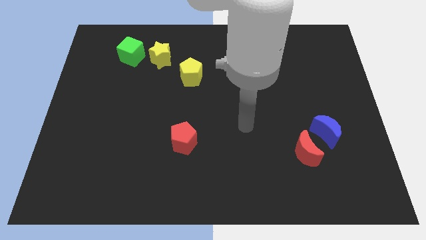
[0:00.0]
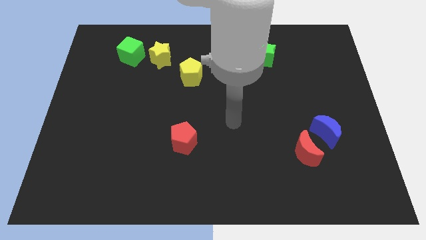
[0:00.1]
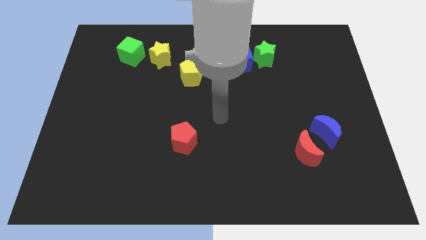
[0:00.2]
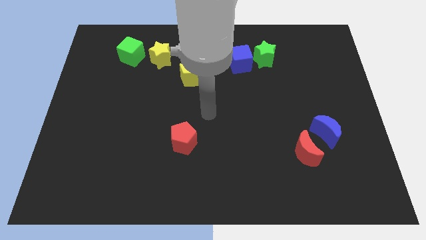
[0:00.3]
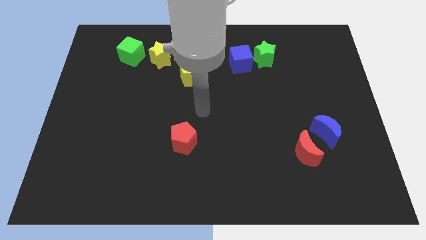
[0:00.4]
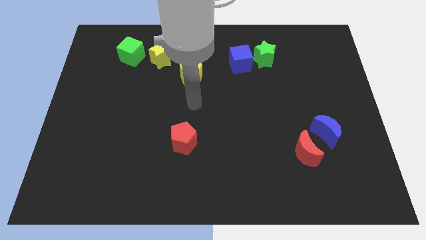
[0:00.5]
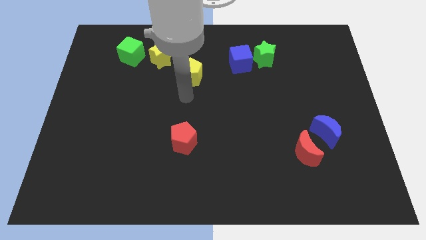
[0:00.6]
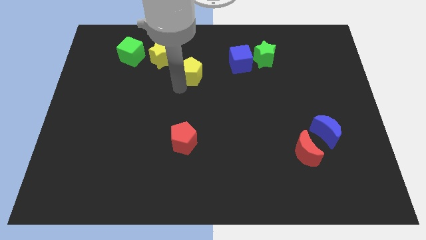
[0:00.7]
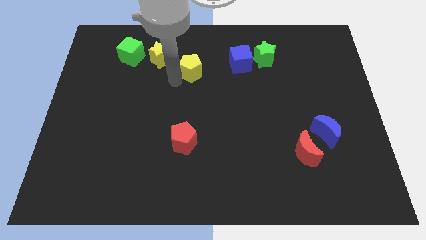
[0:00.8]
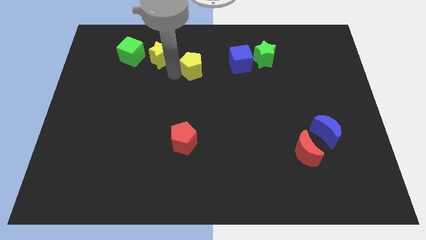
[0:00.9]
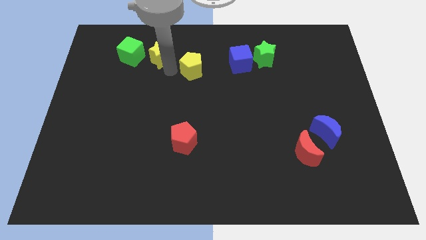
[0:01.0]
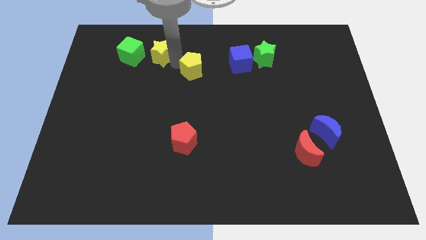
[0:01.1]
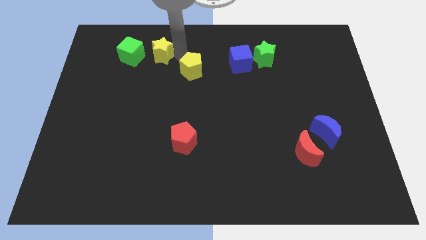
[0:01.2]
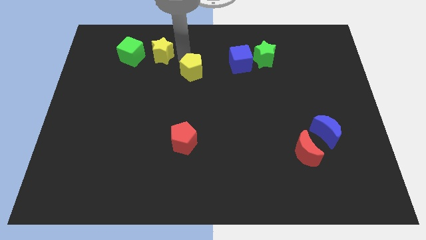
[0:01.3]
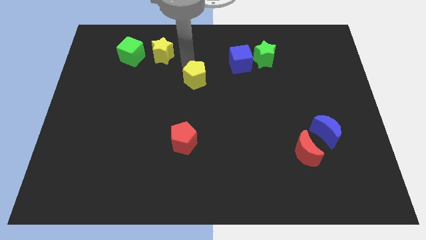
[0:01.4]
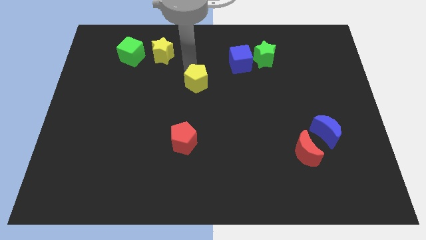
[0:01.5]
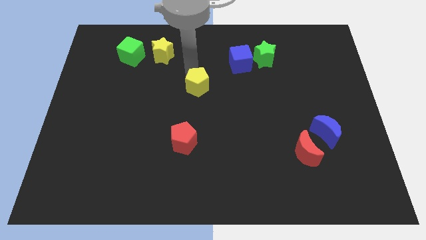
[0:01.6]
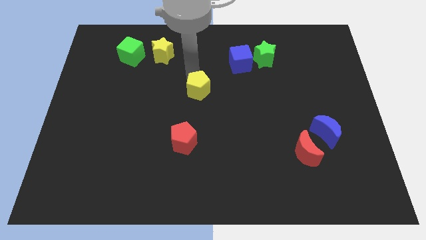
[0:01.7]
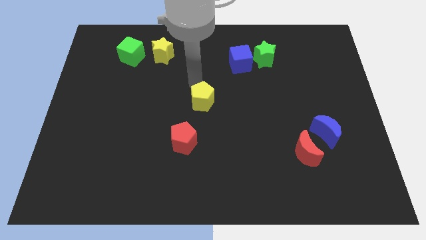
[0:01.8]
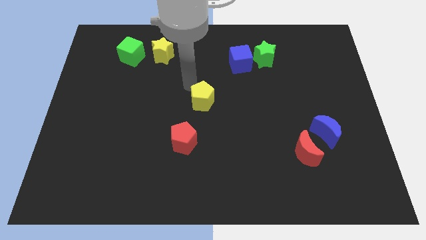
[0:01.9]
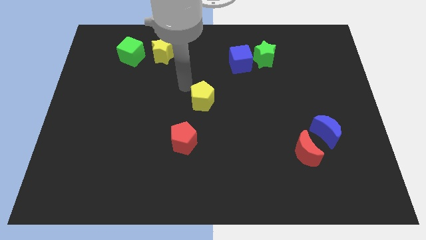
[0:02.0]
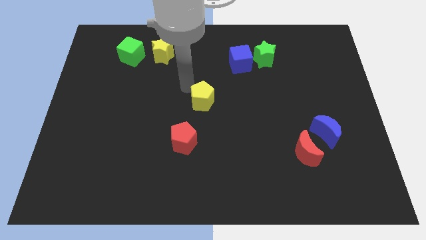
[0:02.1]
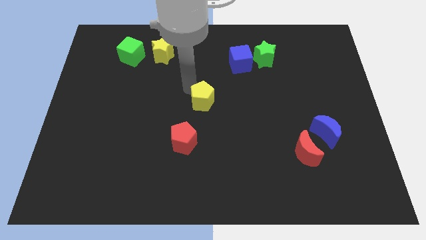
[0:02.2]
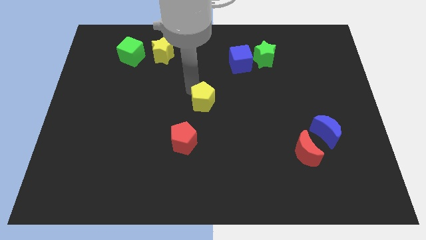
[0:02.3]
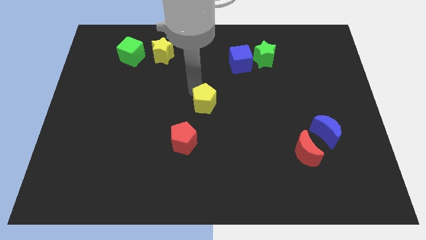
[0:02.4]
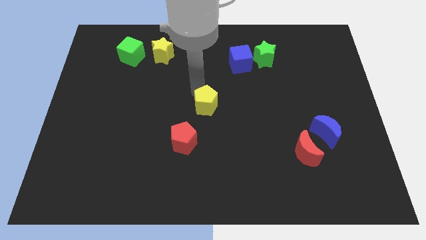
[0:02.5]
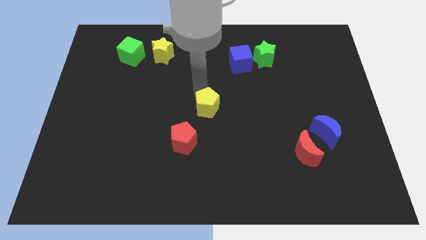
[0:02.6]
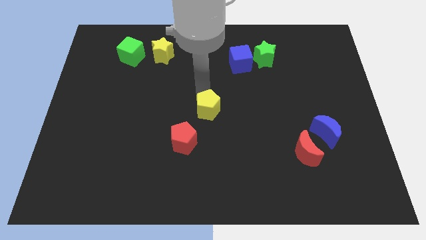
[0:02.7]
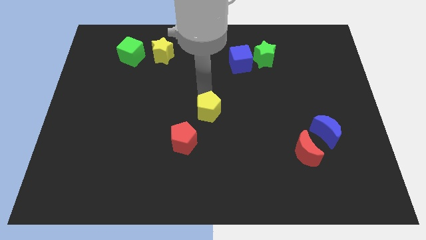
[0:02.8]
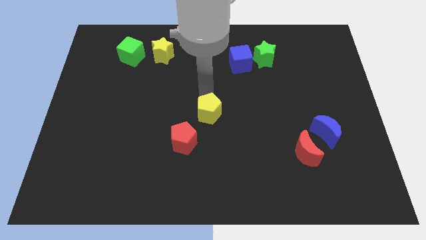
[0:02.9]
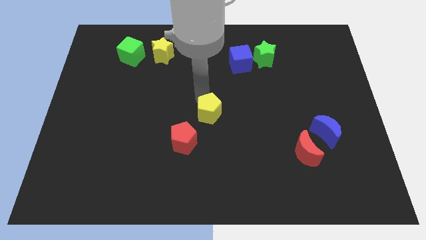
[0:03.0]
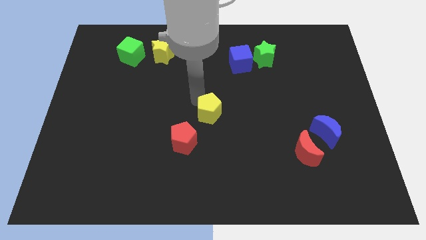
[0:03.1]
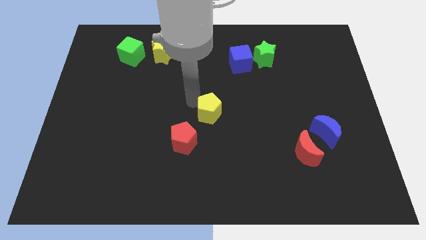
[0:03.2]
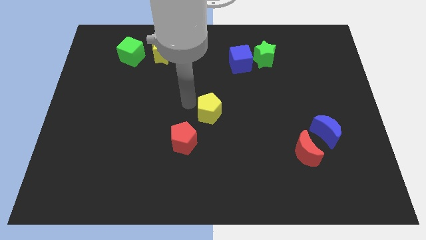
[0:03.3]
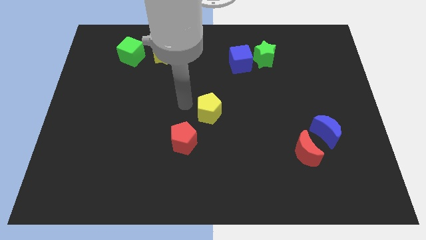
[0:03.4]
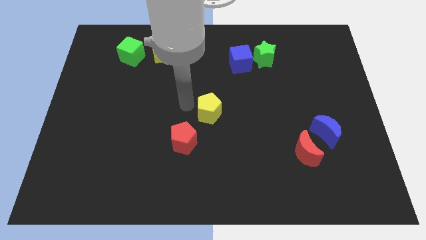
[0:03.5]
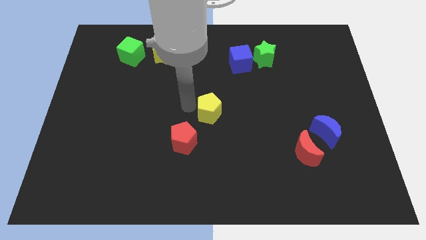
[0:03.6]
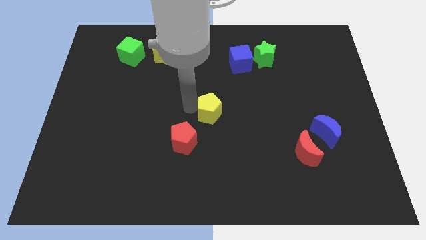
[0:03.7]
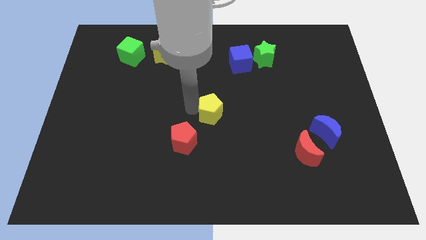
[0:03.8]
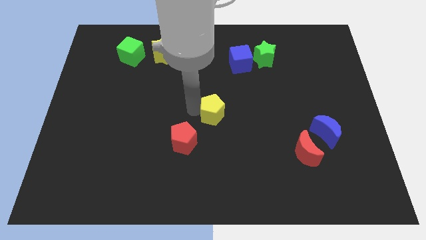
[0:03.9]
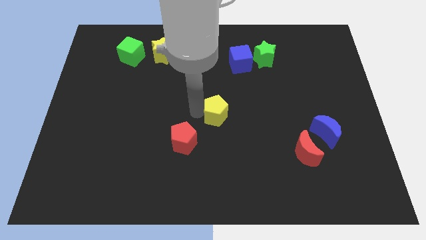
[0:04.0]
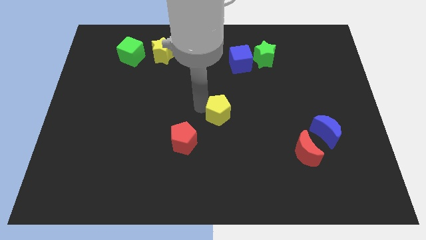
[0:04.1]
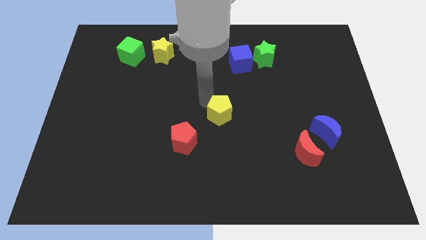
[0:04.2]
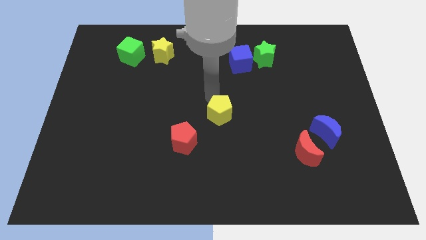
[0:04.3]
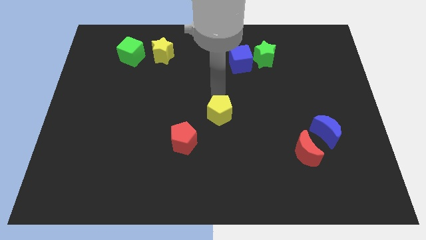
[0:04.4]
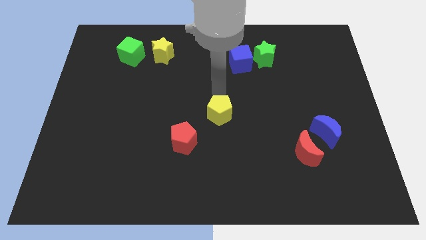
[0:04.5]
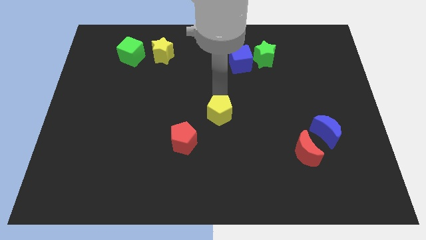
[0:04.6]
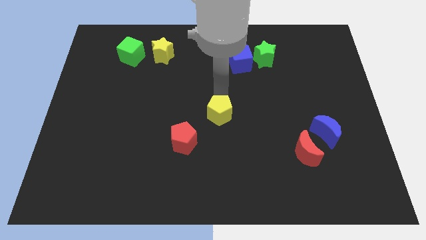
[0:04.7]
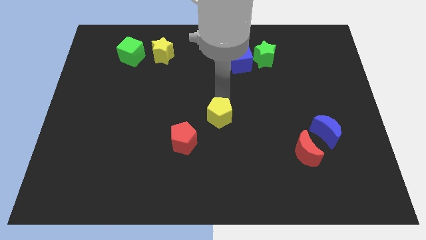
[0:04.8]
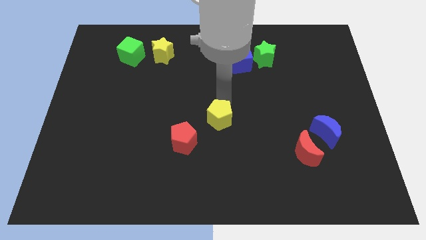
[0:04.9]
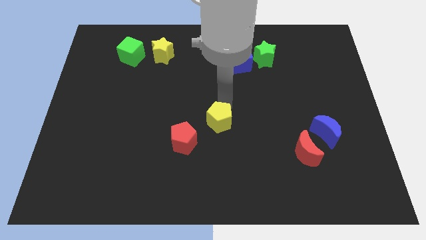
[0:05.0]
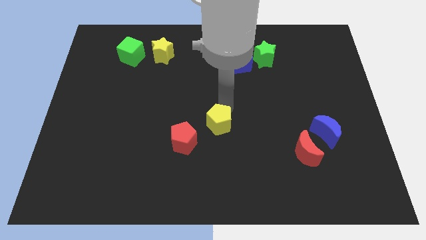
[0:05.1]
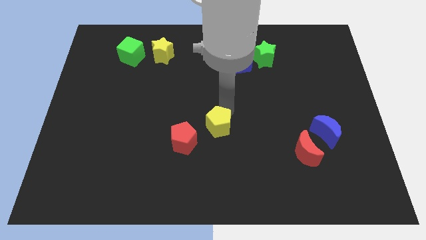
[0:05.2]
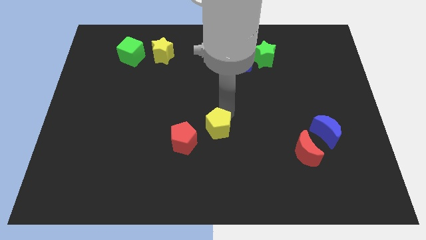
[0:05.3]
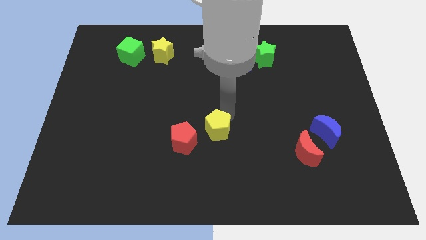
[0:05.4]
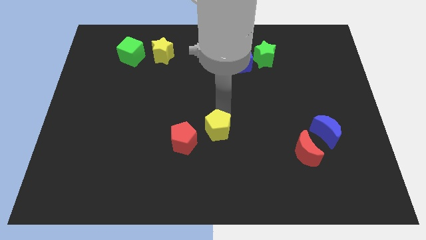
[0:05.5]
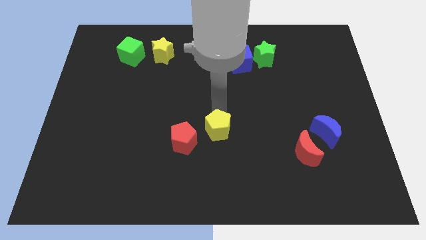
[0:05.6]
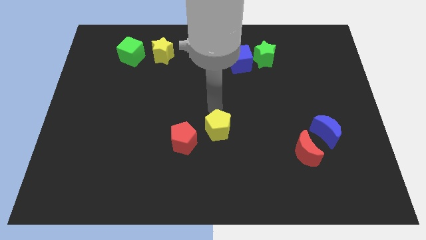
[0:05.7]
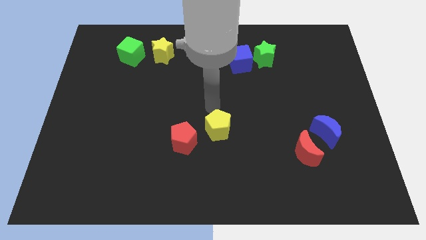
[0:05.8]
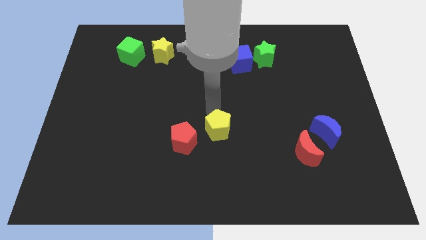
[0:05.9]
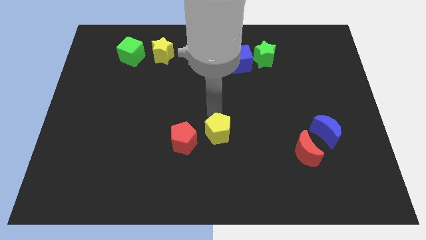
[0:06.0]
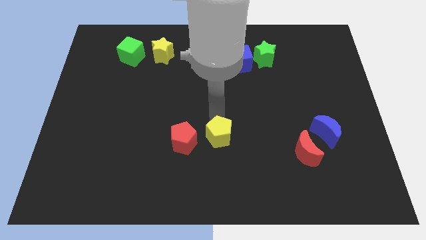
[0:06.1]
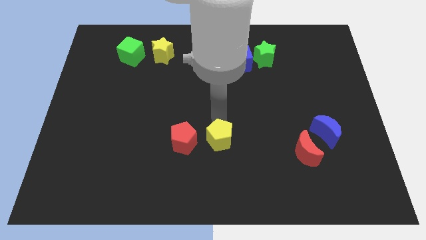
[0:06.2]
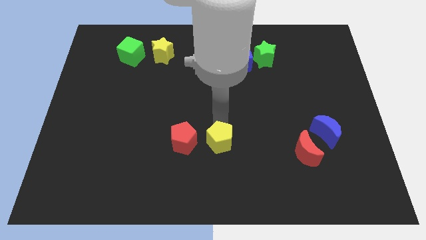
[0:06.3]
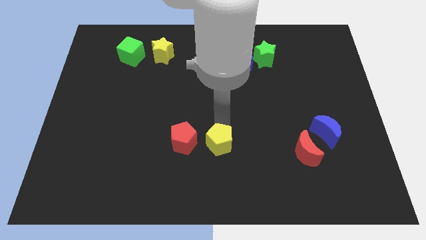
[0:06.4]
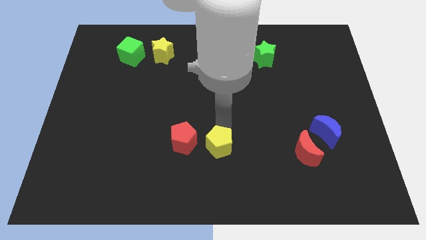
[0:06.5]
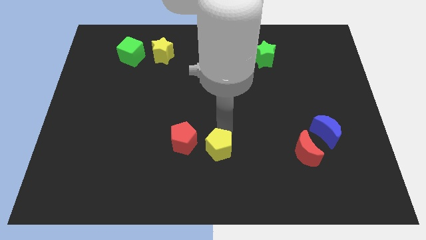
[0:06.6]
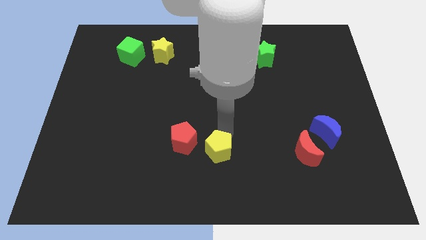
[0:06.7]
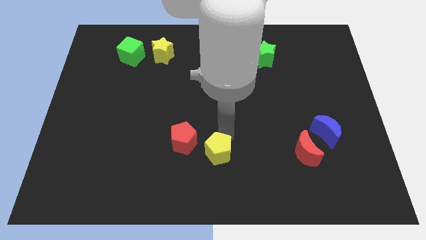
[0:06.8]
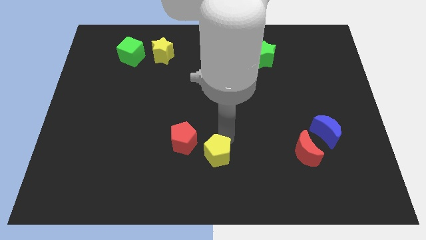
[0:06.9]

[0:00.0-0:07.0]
push the yellow pentagon to the bottom

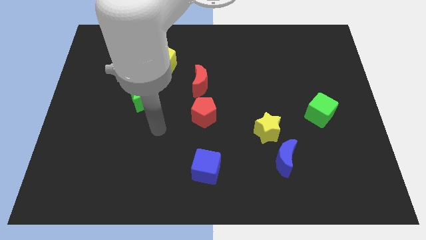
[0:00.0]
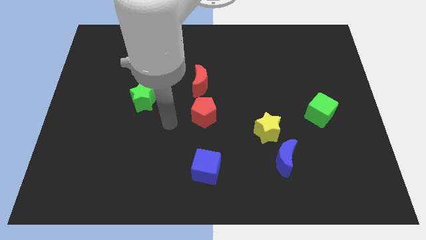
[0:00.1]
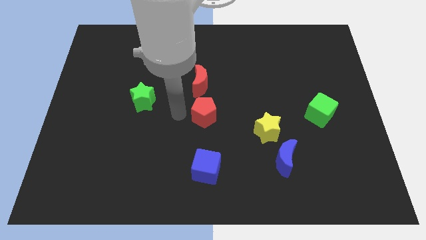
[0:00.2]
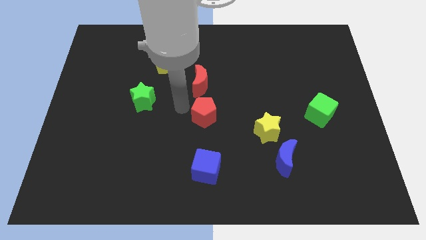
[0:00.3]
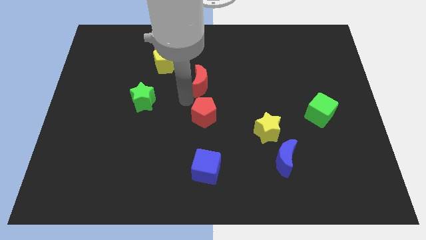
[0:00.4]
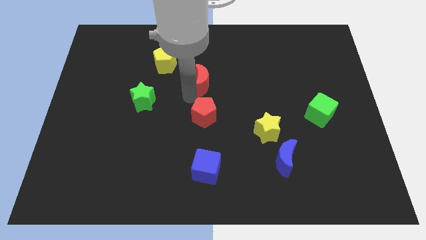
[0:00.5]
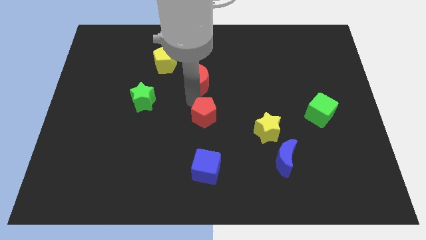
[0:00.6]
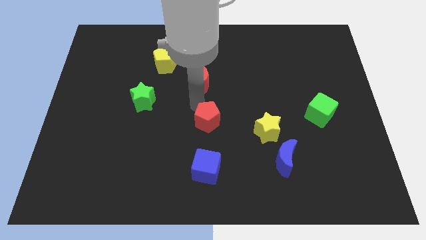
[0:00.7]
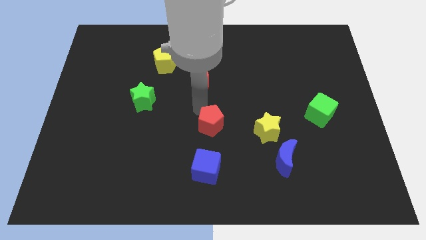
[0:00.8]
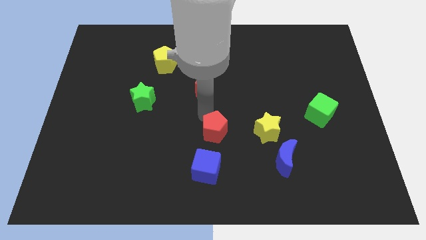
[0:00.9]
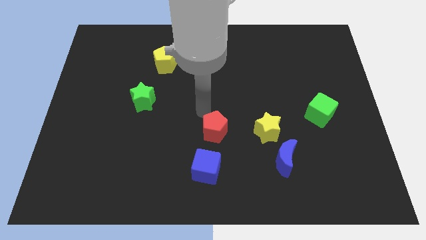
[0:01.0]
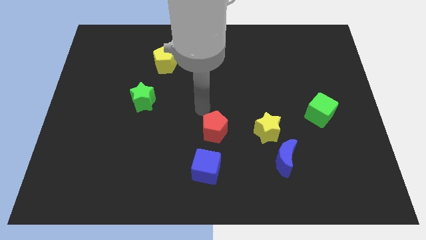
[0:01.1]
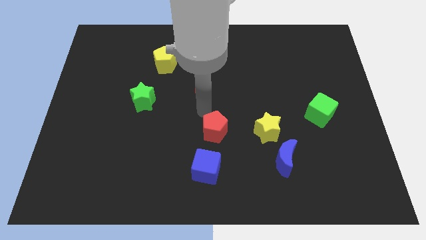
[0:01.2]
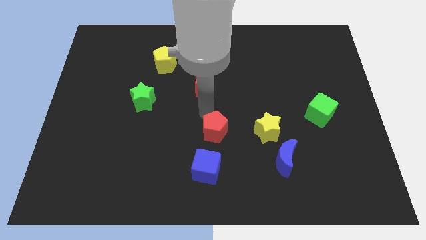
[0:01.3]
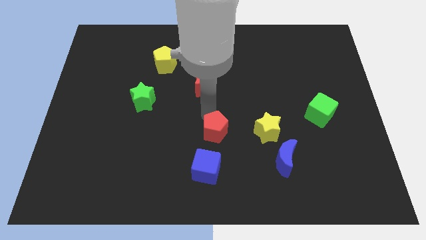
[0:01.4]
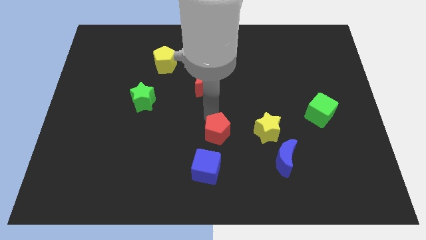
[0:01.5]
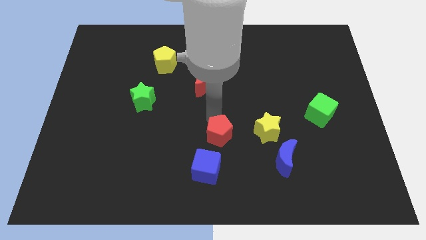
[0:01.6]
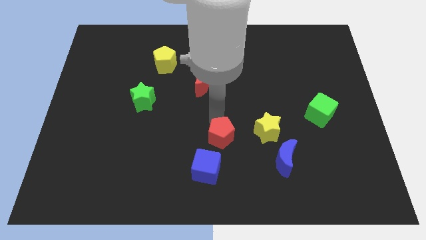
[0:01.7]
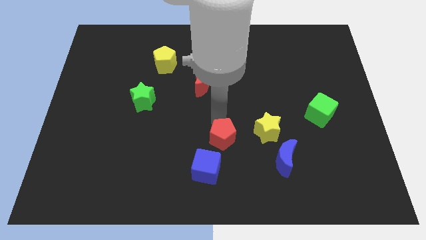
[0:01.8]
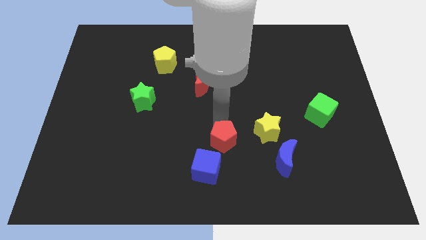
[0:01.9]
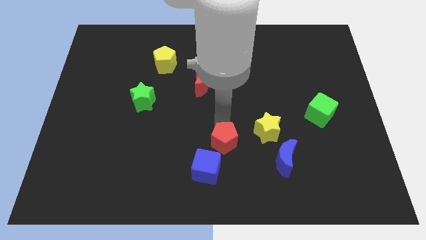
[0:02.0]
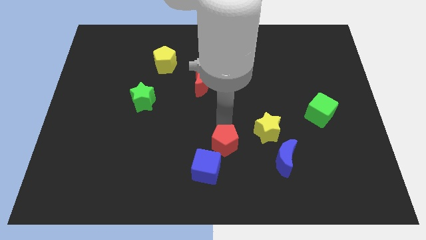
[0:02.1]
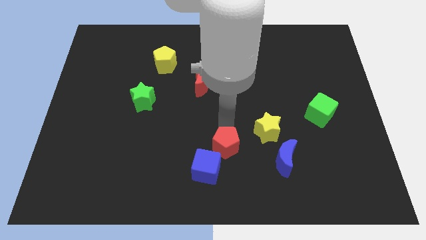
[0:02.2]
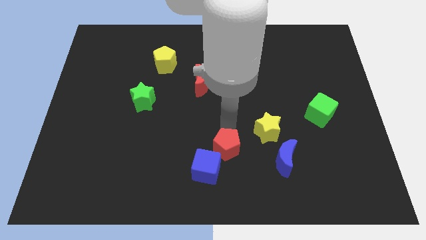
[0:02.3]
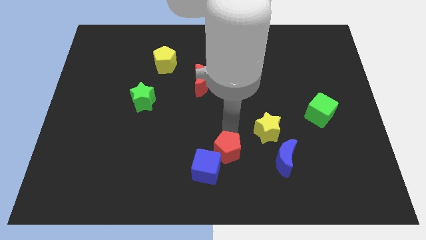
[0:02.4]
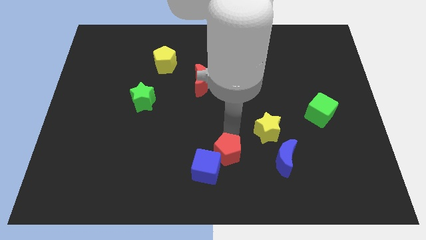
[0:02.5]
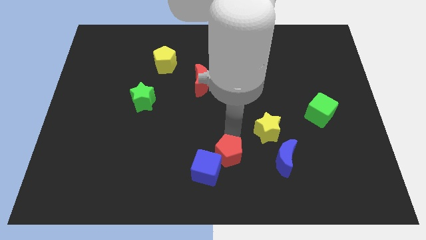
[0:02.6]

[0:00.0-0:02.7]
push the red pentagon to the bottom side
